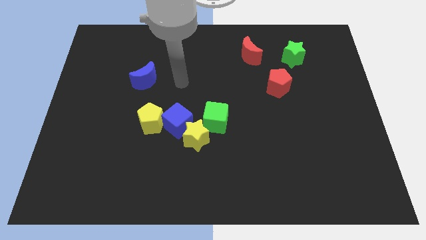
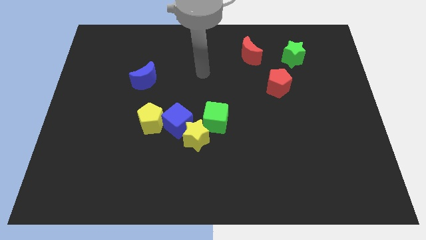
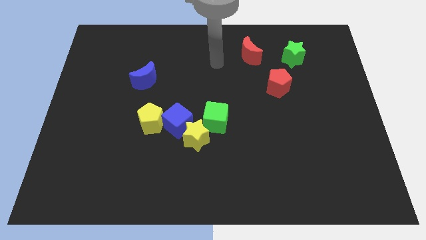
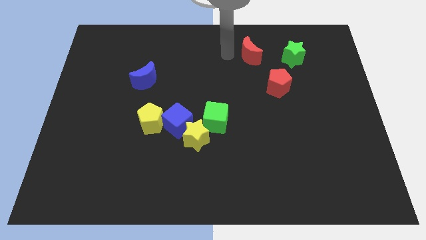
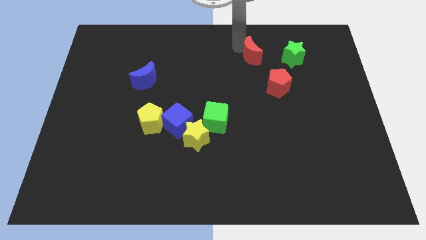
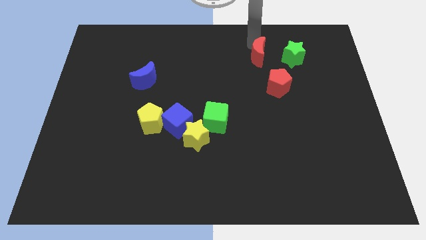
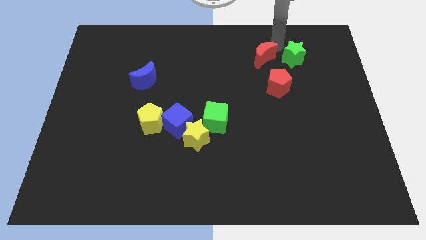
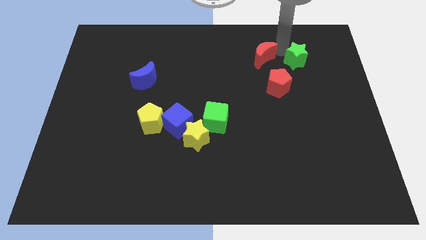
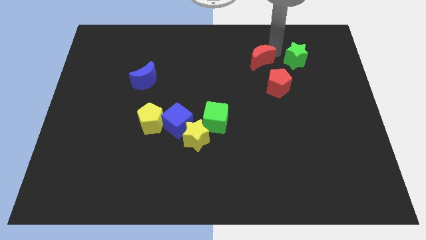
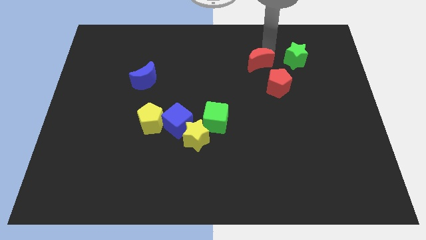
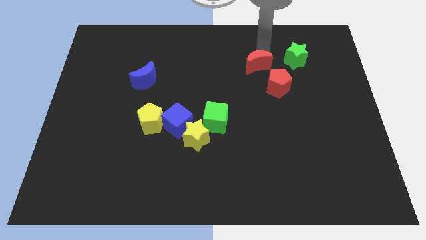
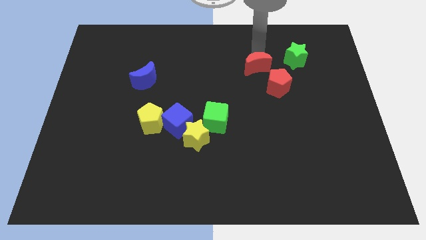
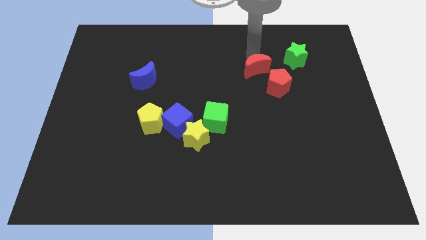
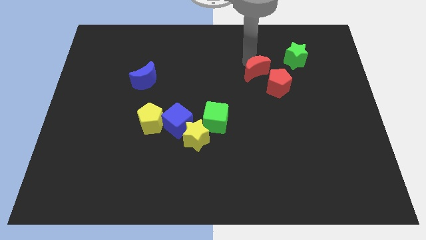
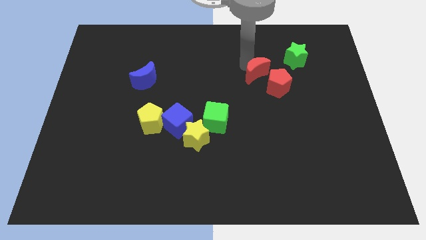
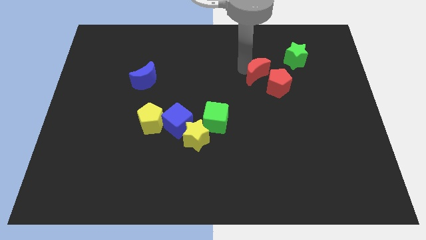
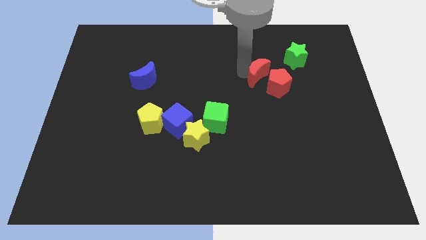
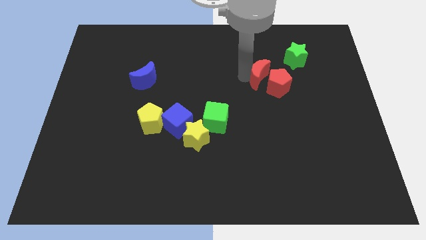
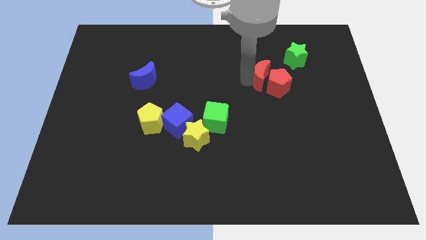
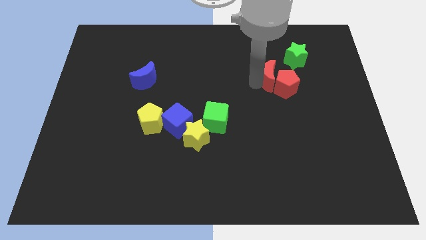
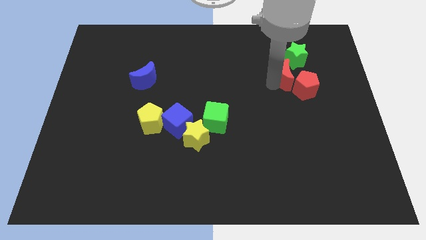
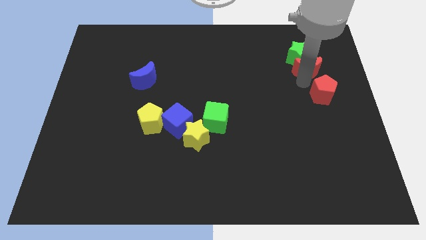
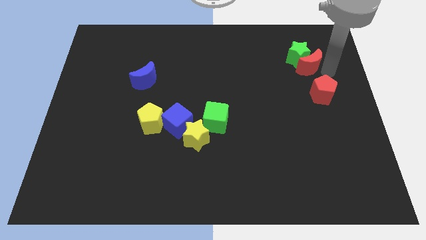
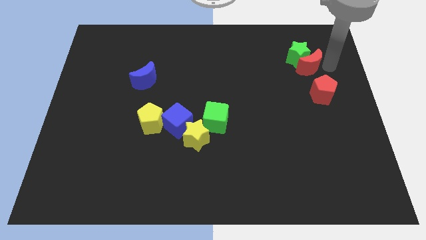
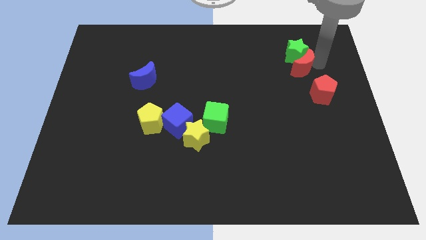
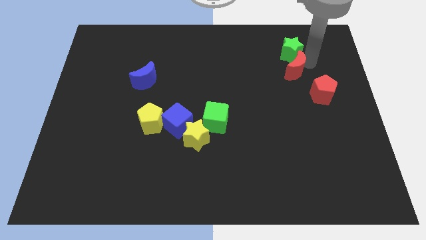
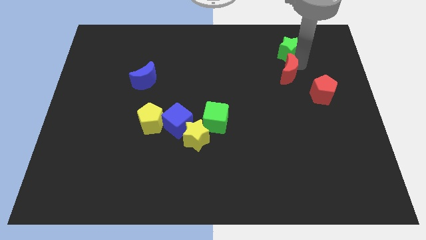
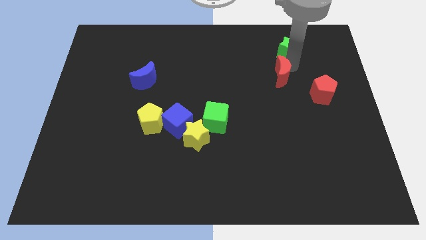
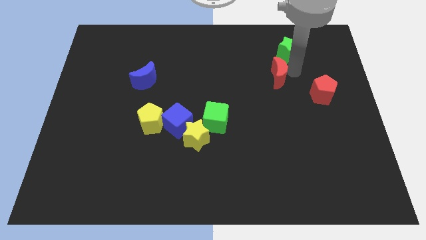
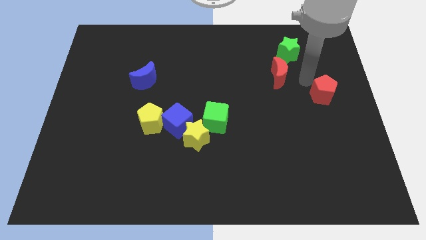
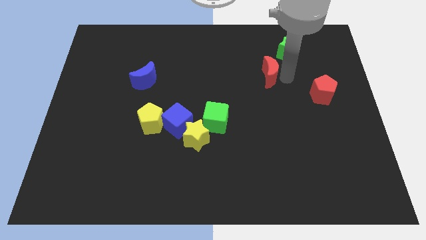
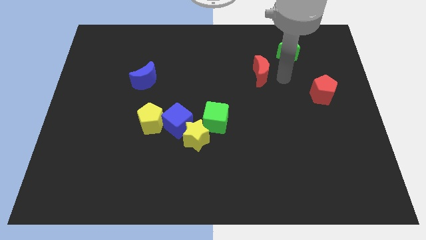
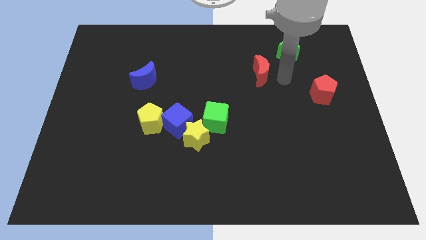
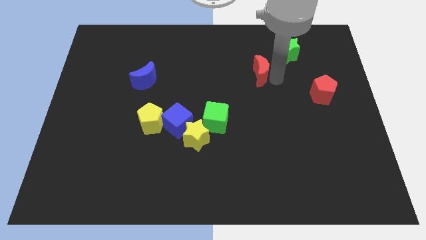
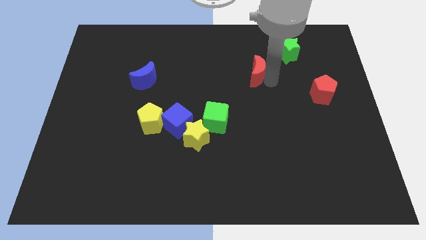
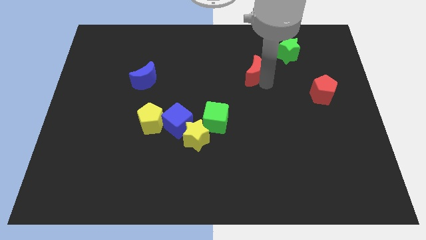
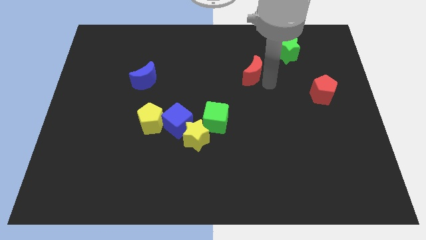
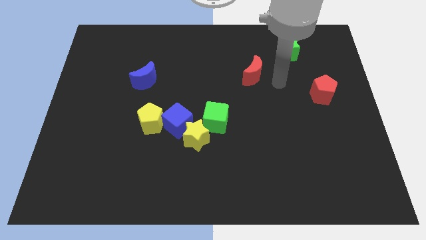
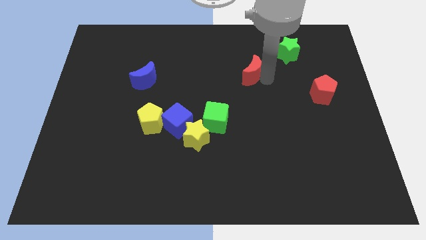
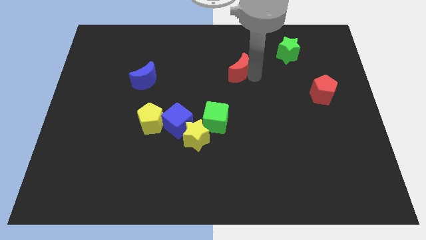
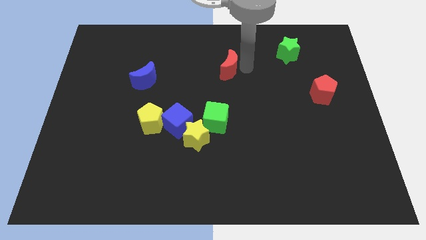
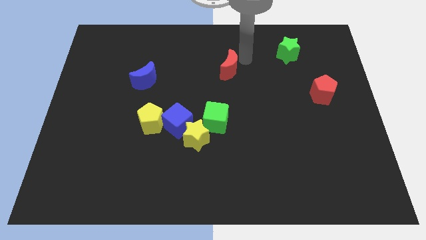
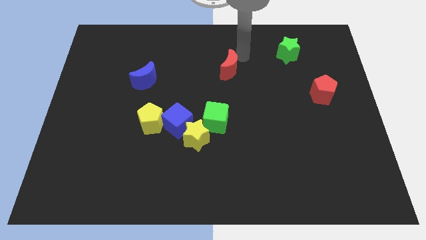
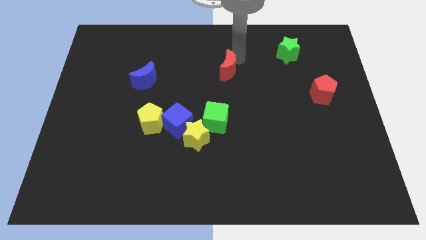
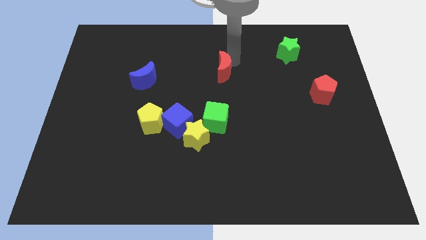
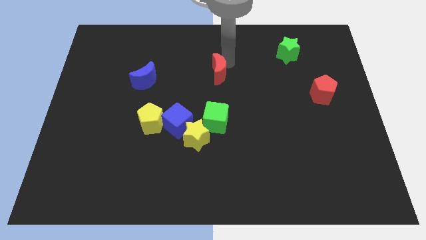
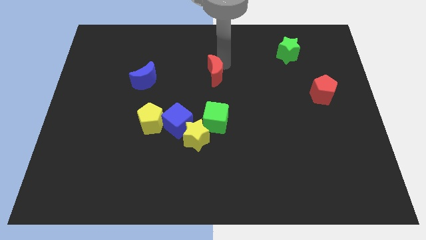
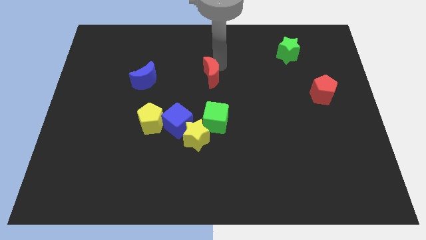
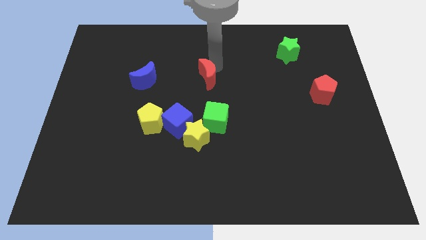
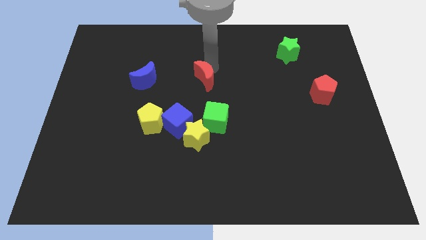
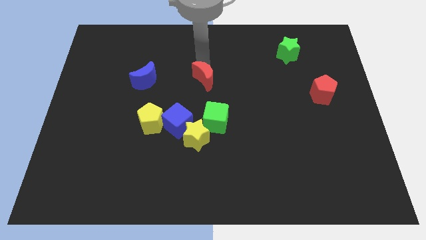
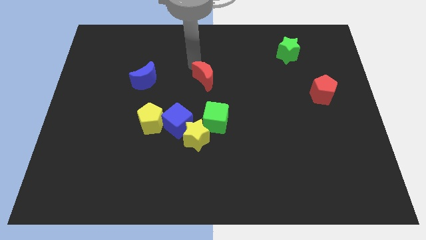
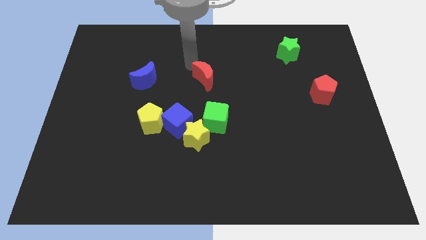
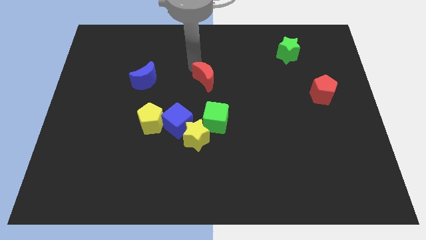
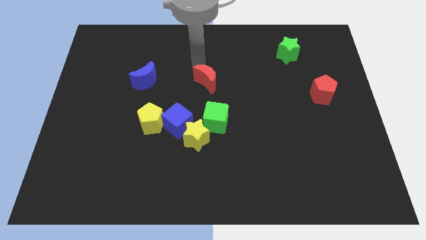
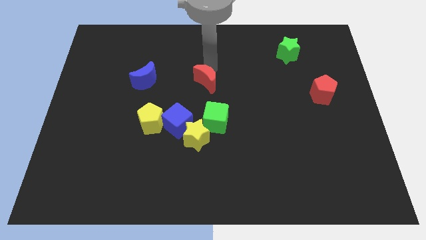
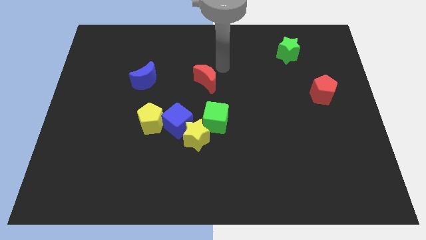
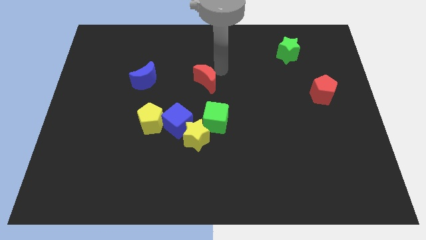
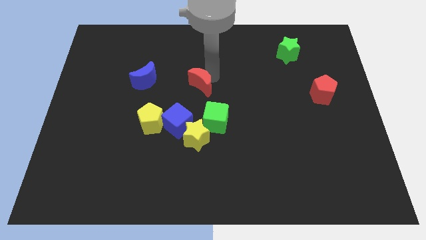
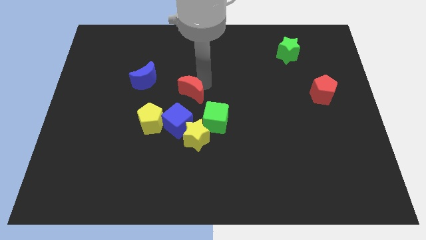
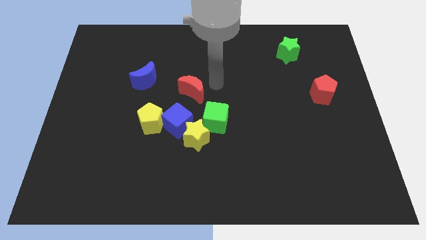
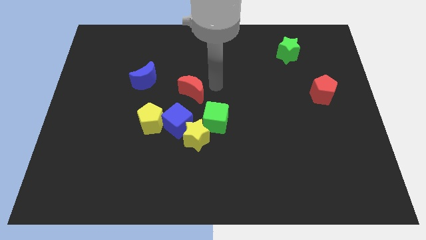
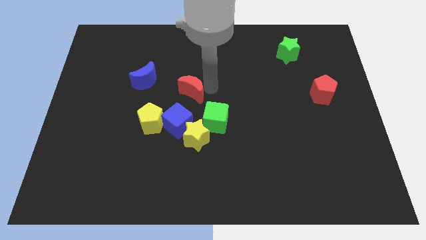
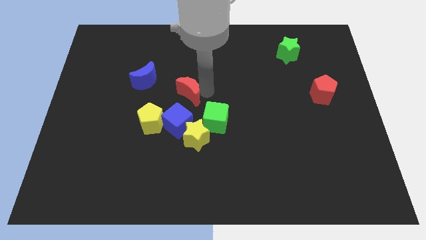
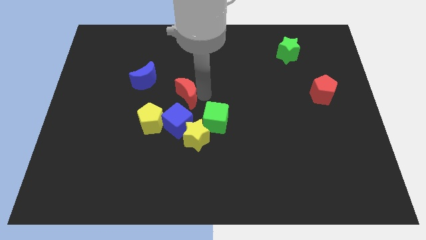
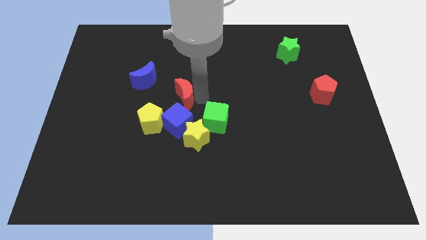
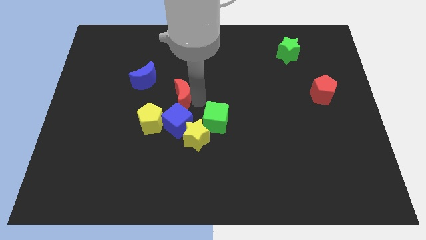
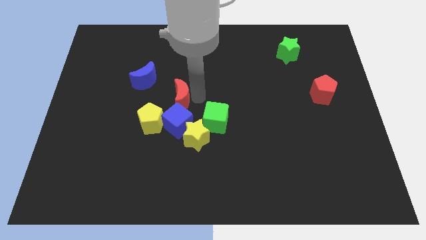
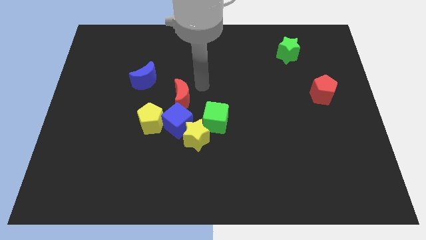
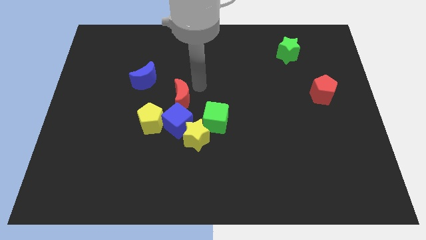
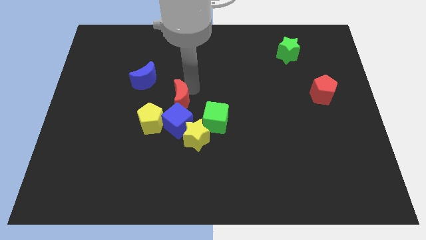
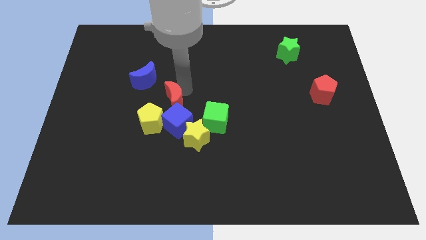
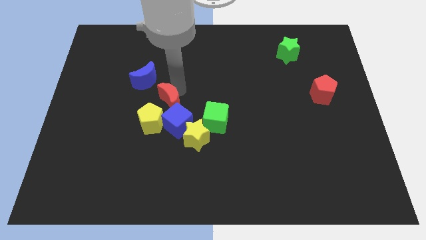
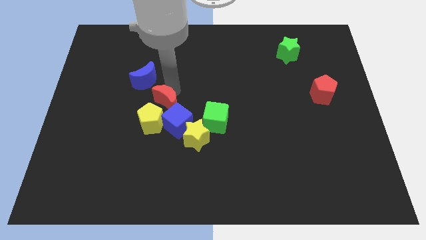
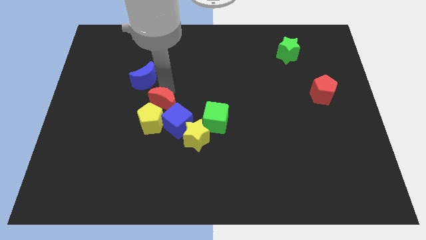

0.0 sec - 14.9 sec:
push the red moon towards the yellow pentagon

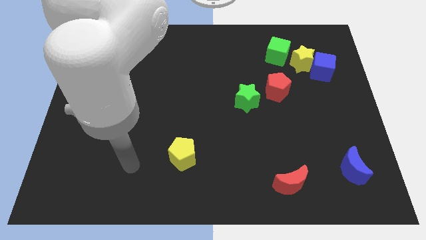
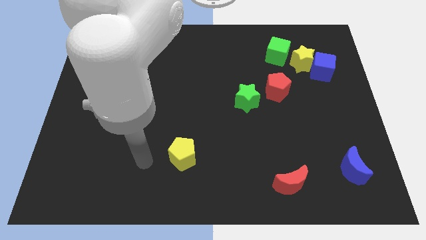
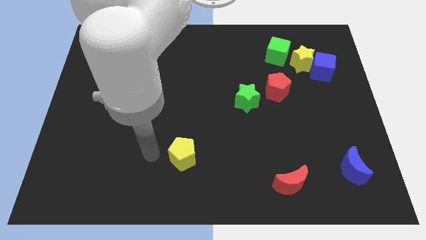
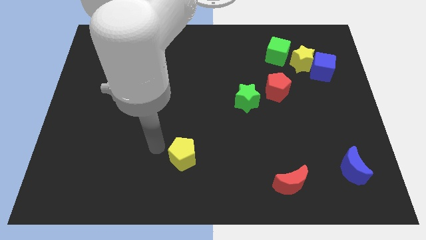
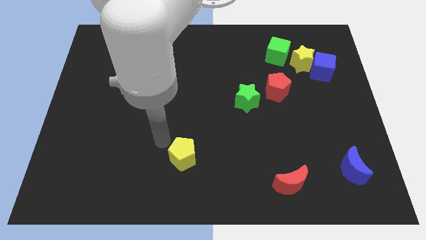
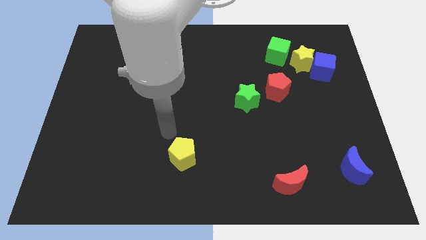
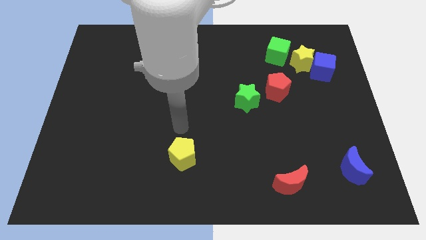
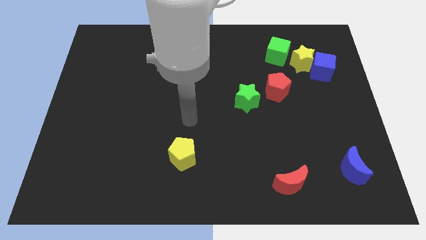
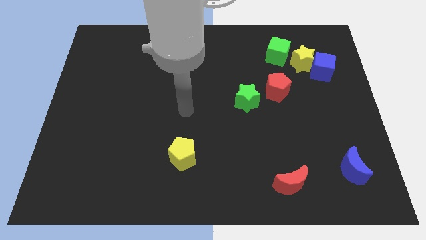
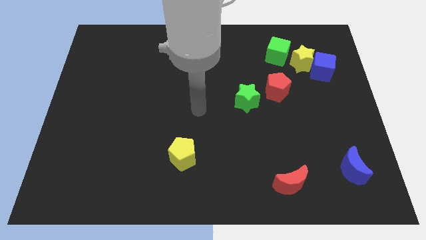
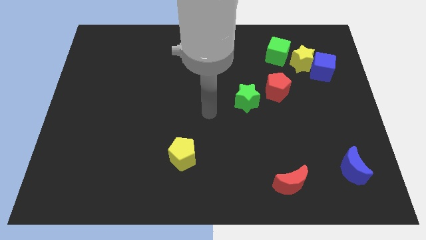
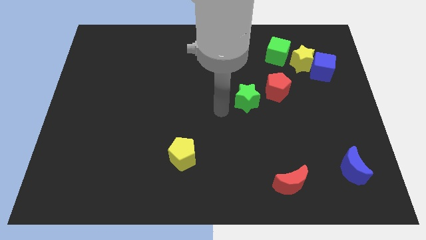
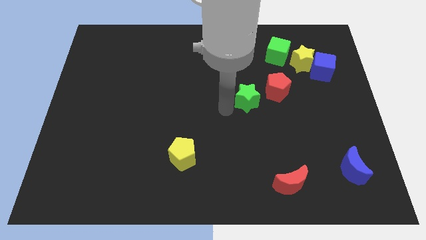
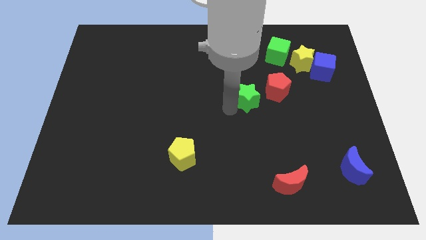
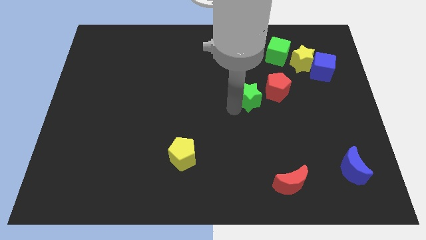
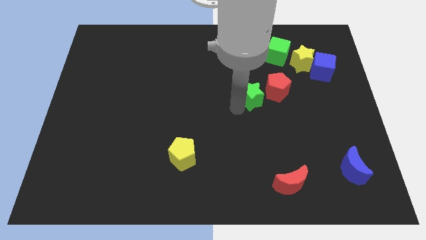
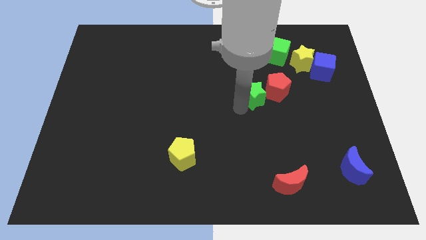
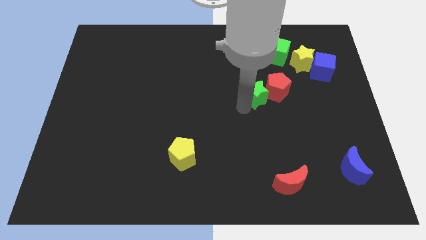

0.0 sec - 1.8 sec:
slide the green star close to the red pentagon
